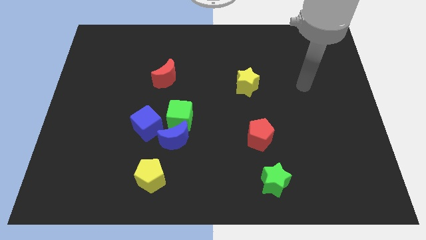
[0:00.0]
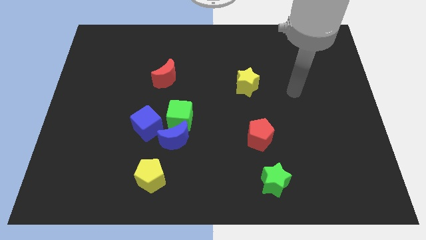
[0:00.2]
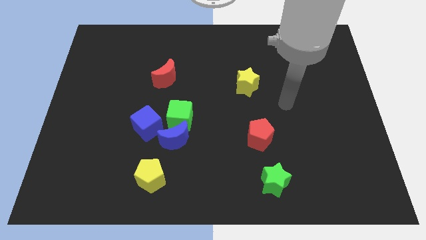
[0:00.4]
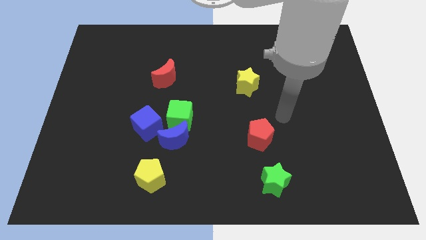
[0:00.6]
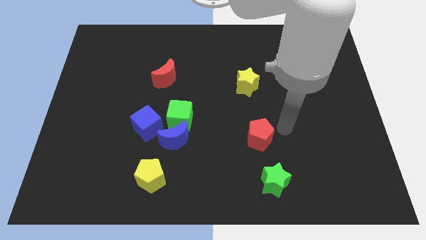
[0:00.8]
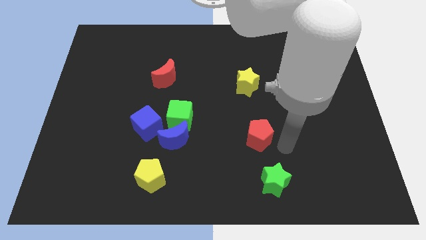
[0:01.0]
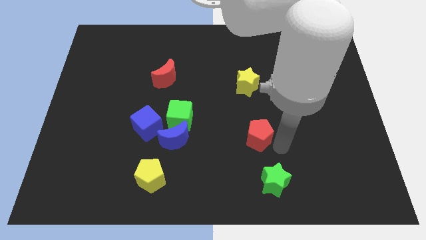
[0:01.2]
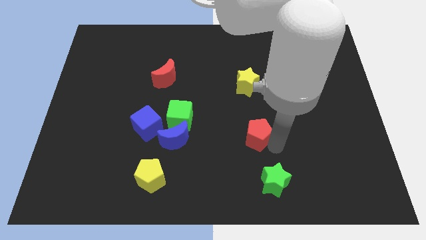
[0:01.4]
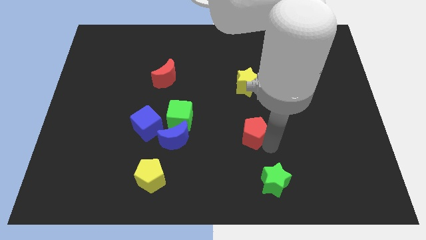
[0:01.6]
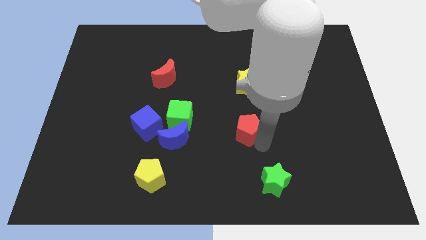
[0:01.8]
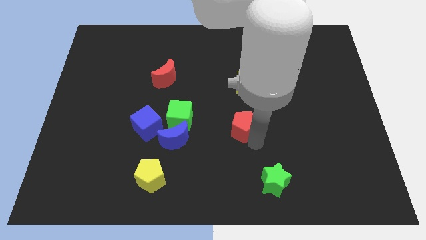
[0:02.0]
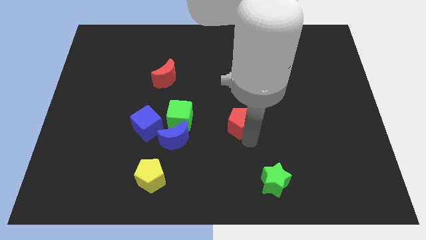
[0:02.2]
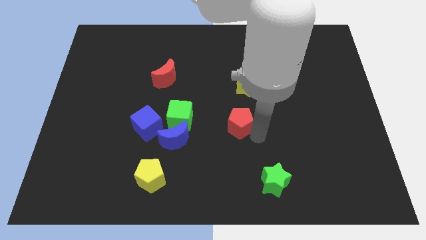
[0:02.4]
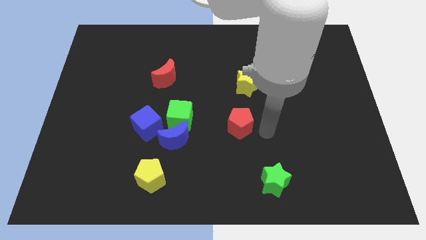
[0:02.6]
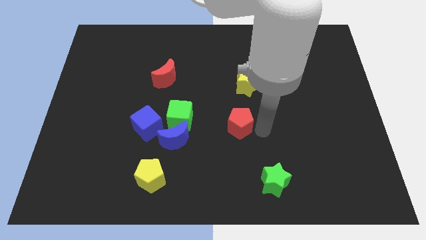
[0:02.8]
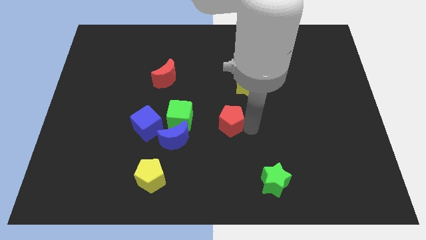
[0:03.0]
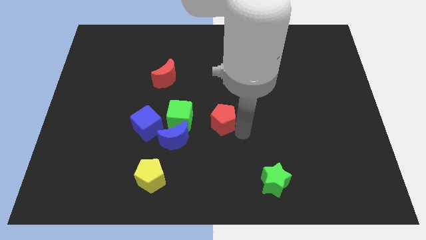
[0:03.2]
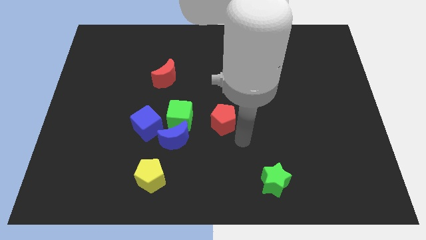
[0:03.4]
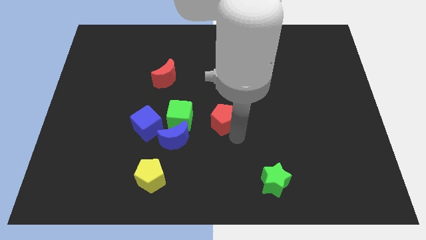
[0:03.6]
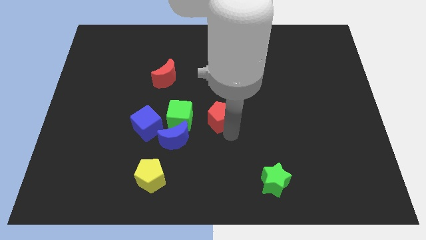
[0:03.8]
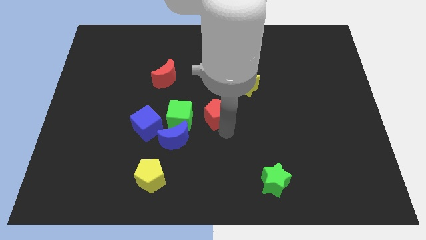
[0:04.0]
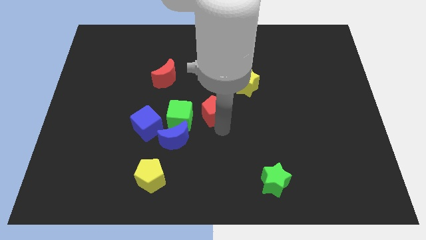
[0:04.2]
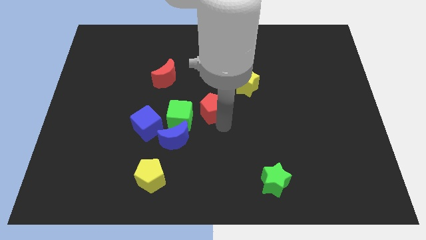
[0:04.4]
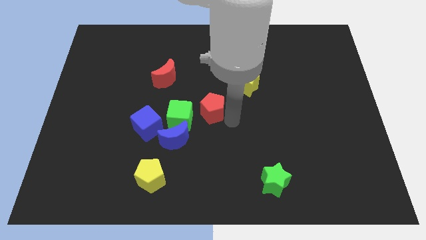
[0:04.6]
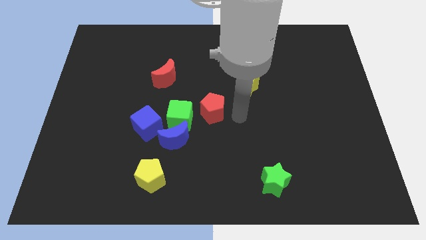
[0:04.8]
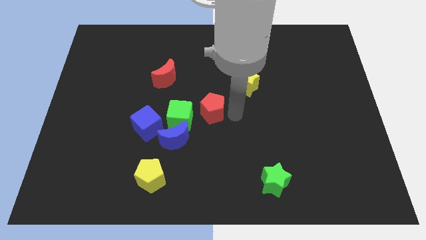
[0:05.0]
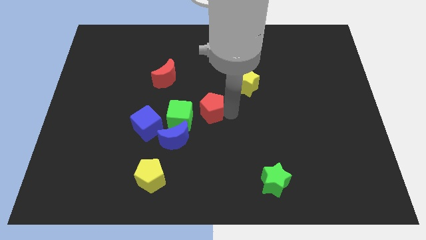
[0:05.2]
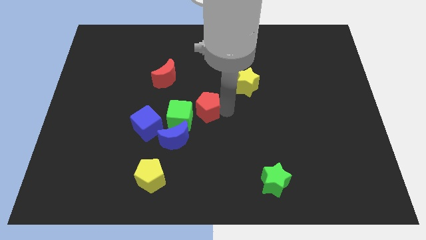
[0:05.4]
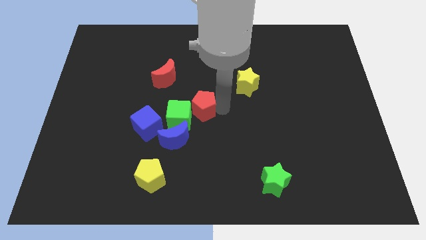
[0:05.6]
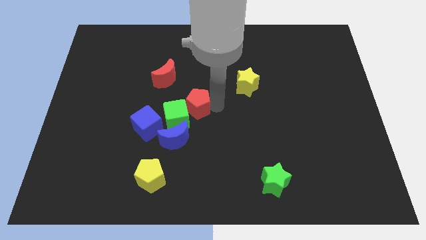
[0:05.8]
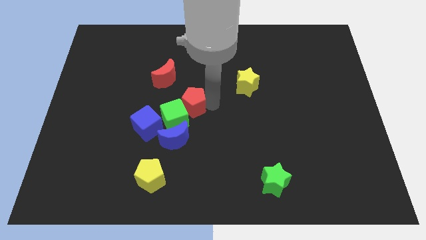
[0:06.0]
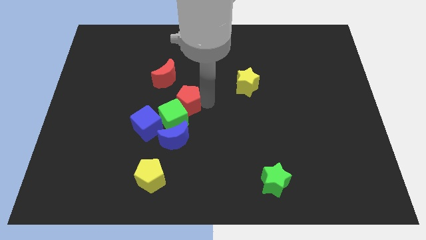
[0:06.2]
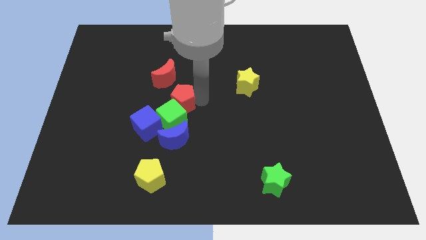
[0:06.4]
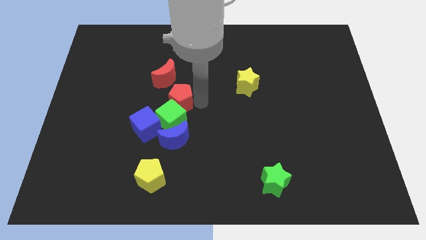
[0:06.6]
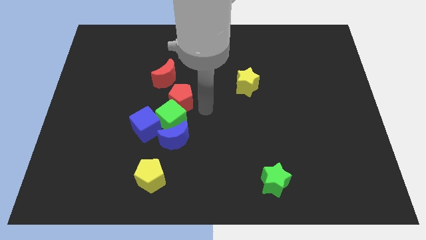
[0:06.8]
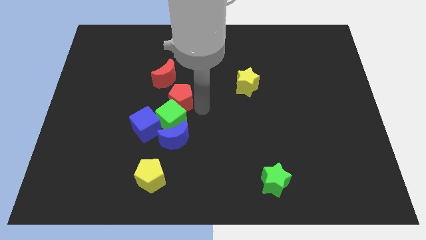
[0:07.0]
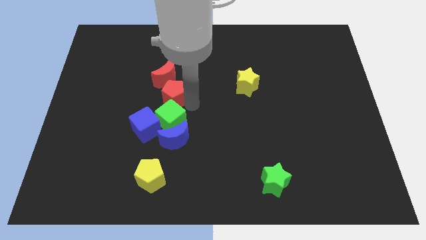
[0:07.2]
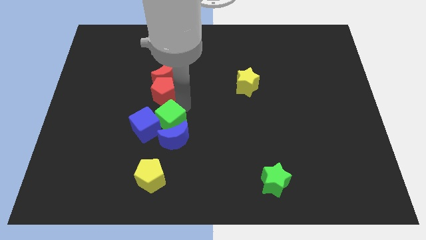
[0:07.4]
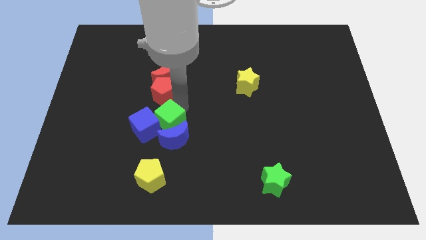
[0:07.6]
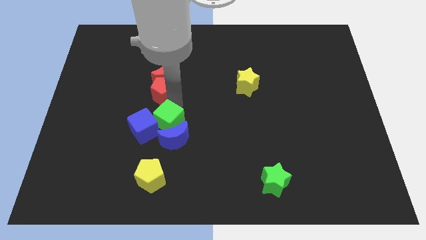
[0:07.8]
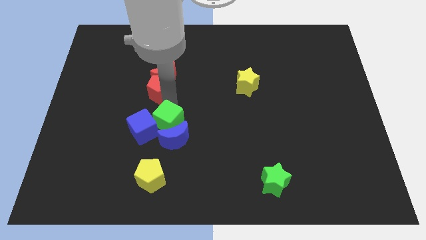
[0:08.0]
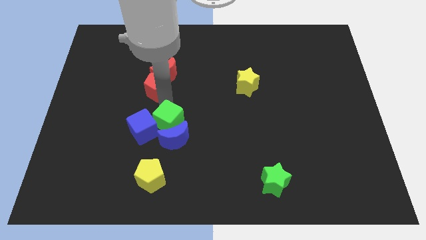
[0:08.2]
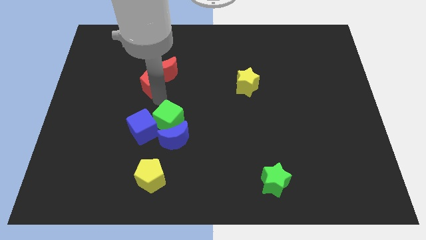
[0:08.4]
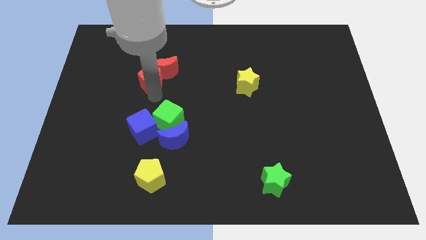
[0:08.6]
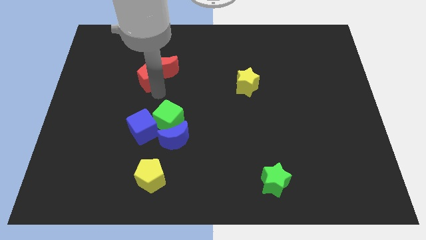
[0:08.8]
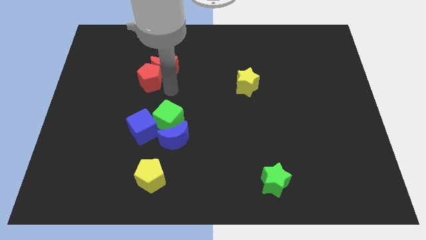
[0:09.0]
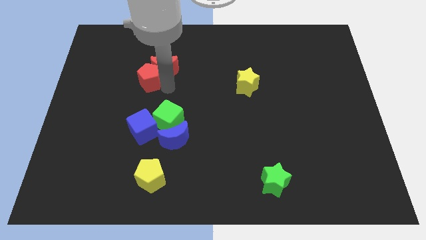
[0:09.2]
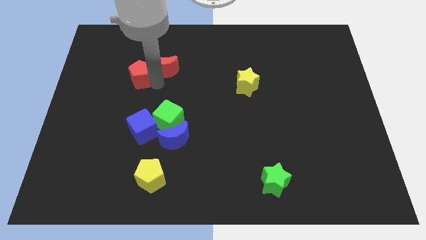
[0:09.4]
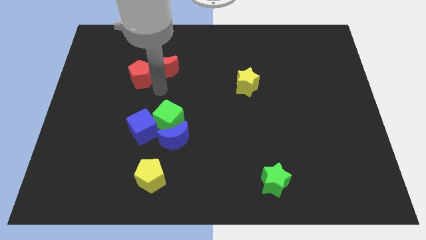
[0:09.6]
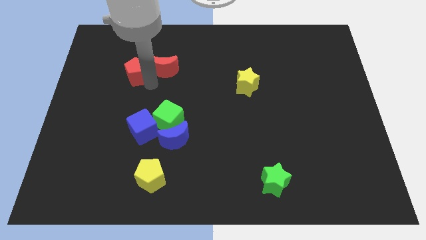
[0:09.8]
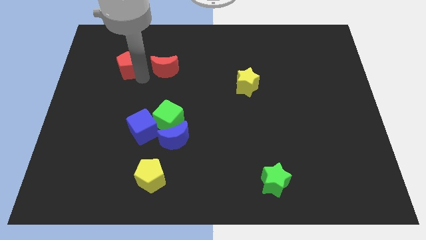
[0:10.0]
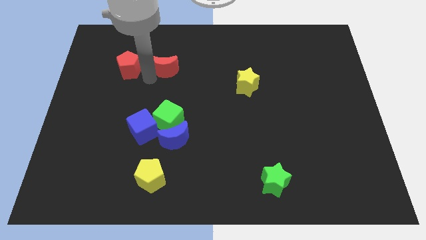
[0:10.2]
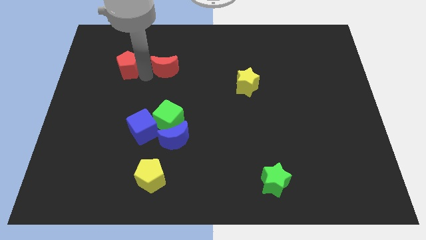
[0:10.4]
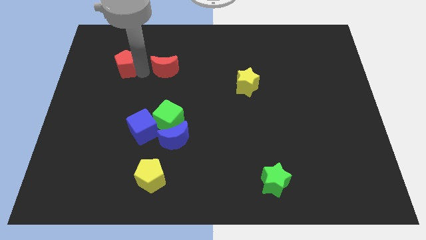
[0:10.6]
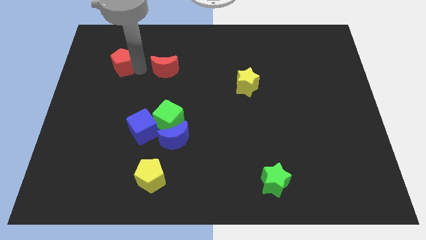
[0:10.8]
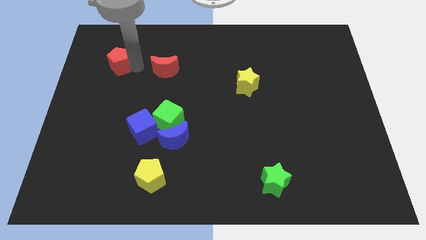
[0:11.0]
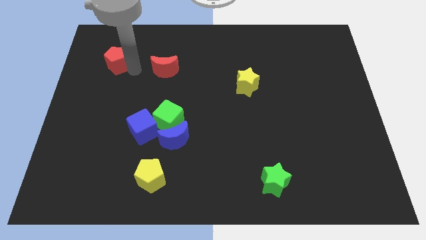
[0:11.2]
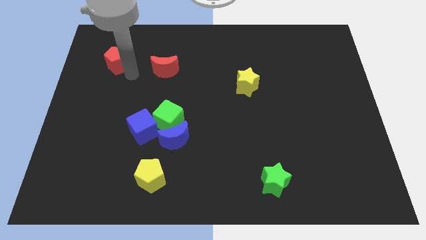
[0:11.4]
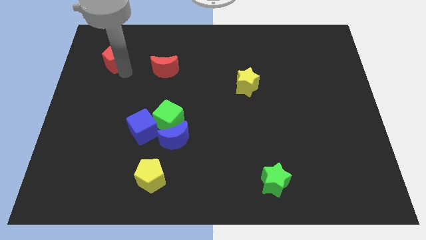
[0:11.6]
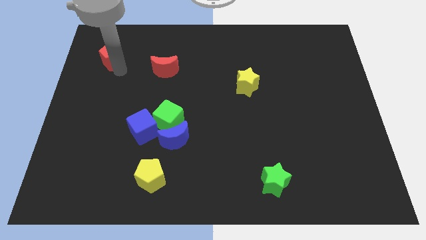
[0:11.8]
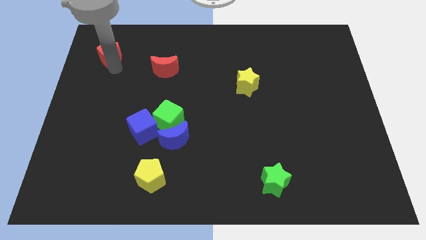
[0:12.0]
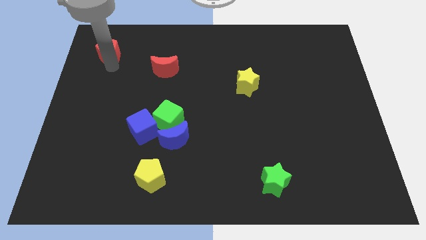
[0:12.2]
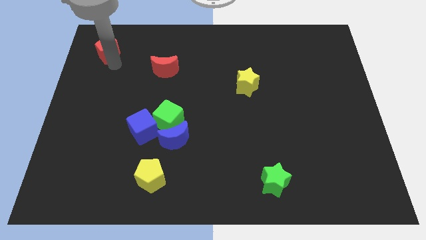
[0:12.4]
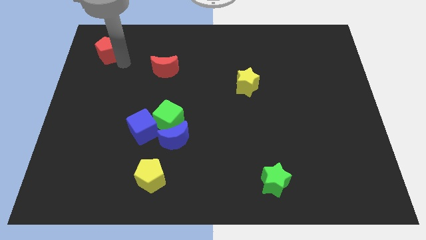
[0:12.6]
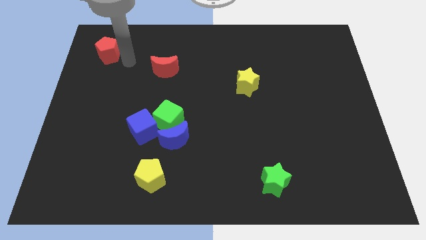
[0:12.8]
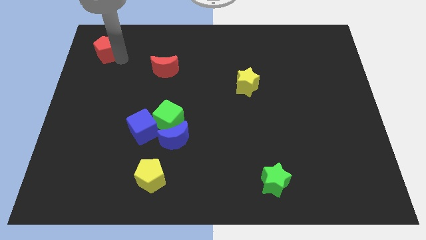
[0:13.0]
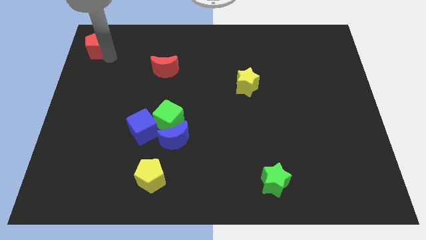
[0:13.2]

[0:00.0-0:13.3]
move the red pentagon to the top left of the board
